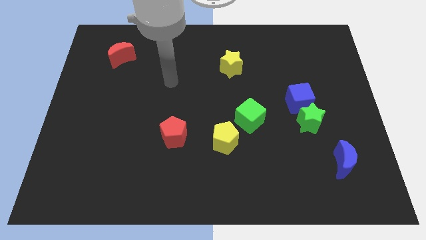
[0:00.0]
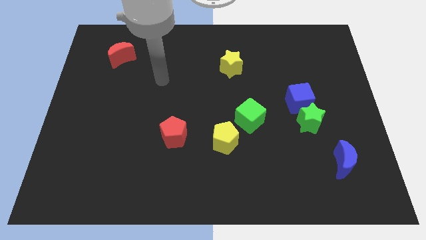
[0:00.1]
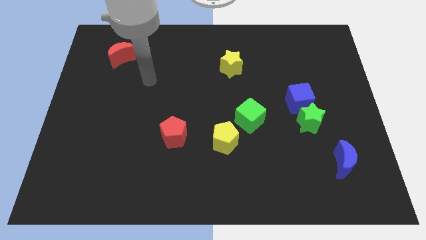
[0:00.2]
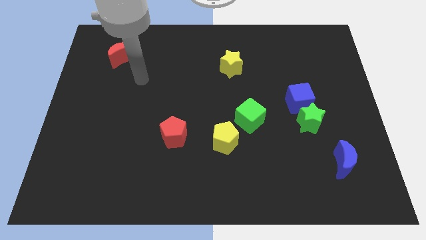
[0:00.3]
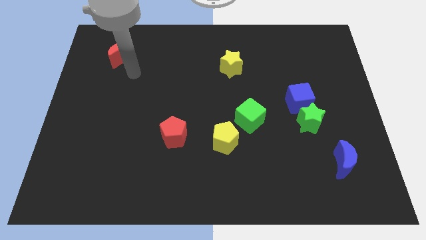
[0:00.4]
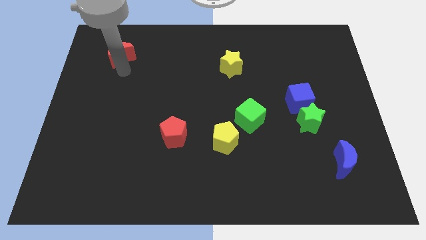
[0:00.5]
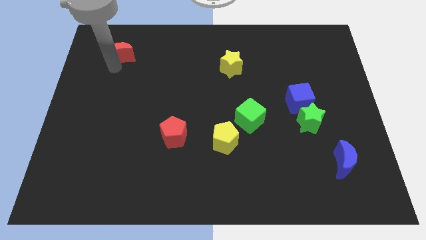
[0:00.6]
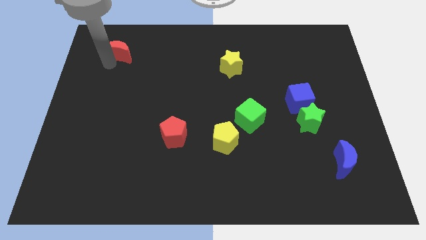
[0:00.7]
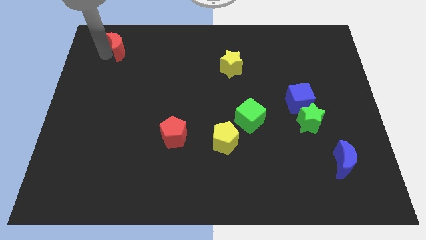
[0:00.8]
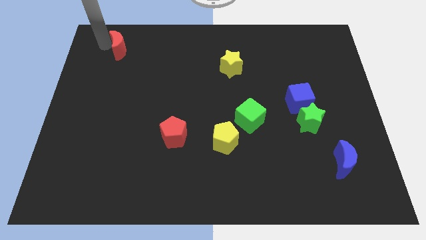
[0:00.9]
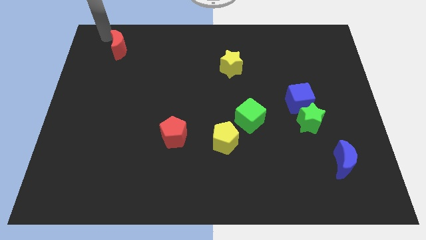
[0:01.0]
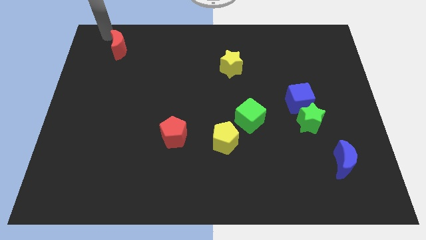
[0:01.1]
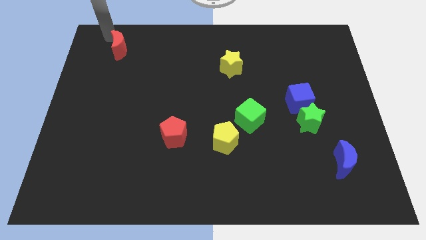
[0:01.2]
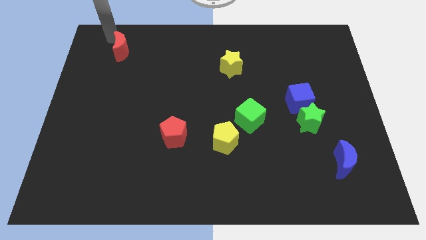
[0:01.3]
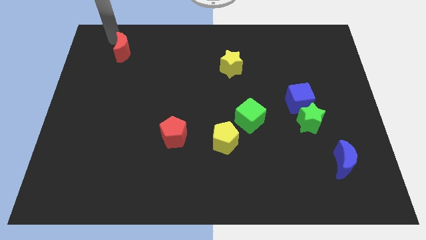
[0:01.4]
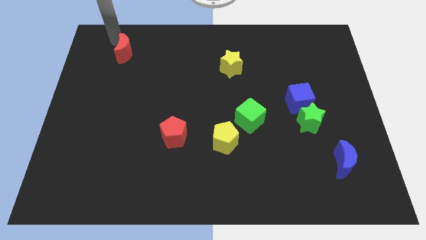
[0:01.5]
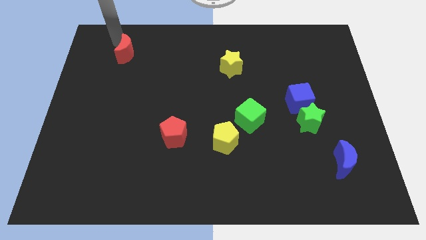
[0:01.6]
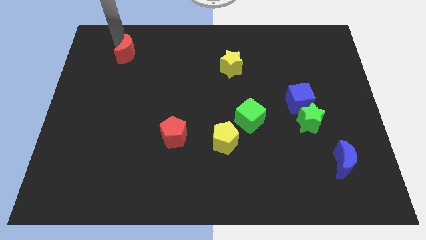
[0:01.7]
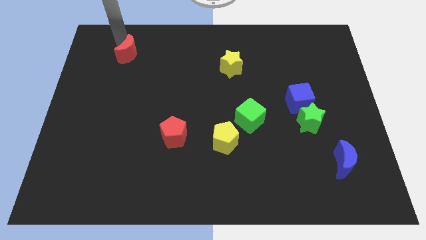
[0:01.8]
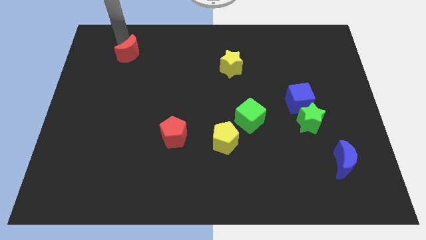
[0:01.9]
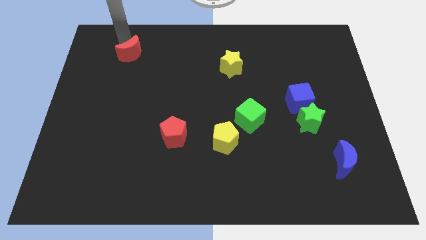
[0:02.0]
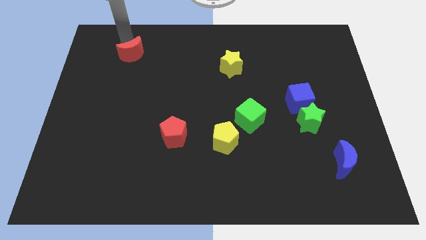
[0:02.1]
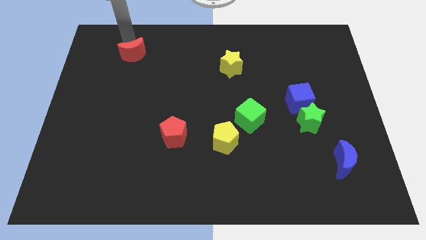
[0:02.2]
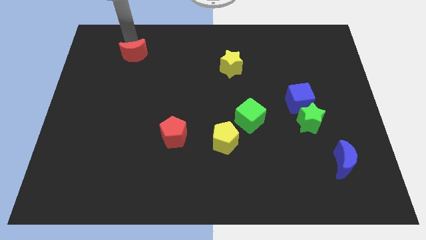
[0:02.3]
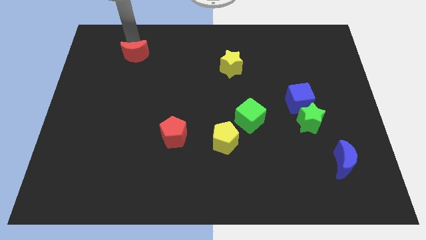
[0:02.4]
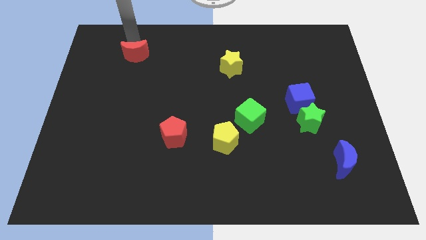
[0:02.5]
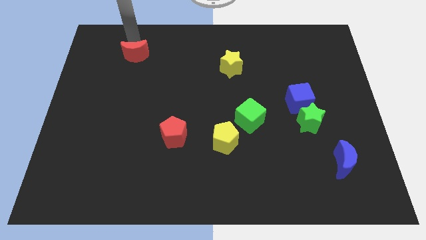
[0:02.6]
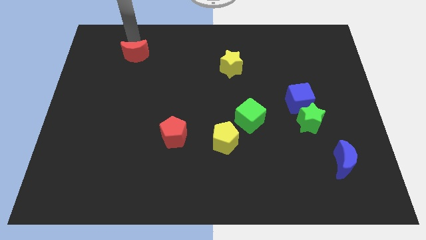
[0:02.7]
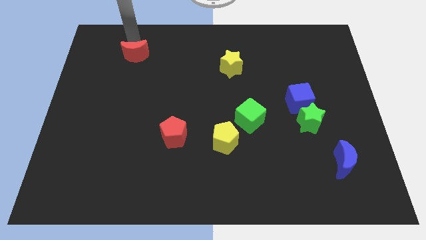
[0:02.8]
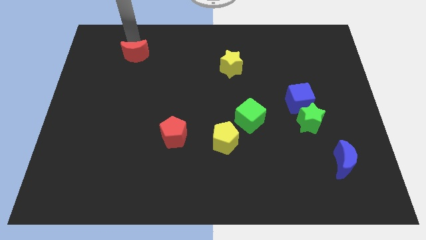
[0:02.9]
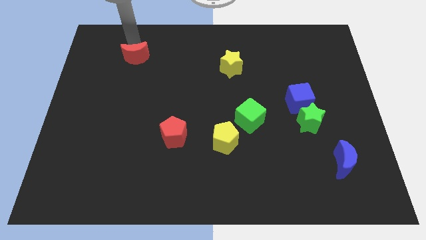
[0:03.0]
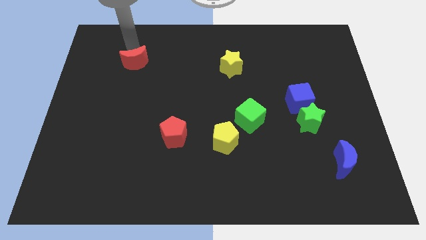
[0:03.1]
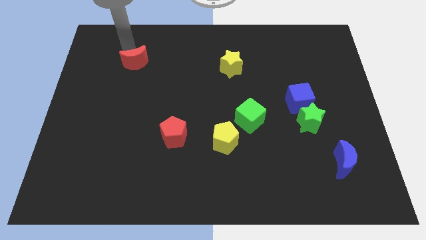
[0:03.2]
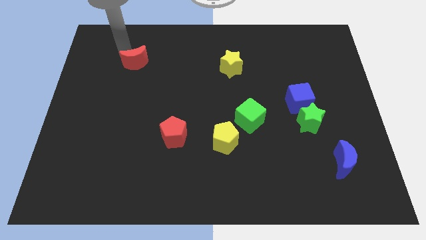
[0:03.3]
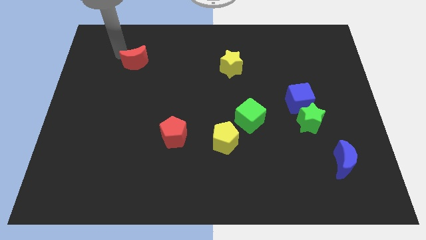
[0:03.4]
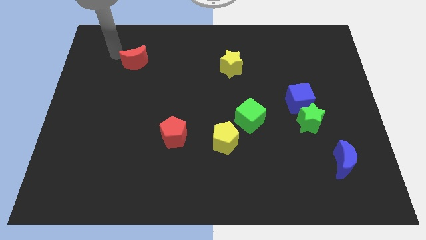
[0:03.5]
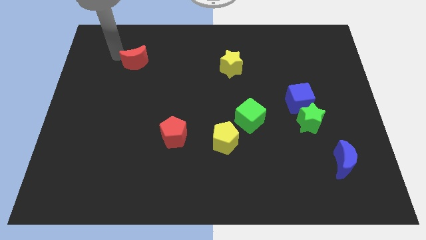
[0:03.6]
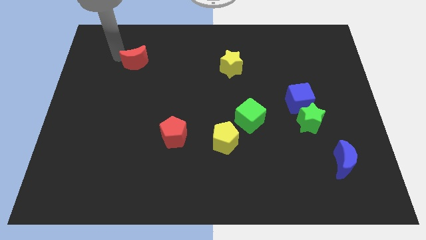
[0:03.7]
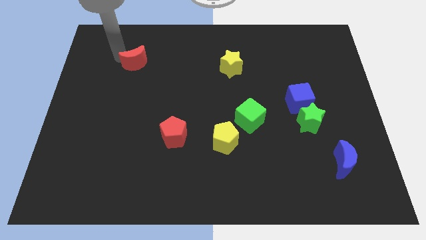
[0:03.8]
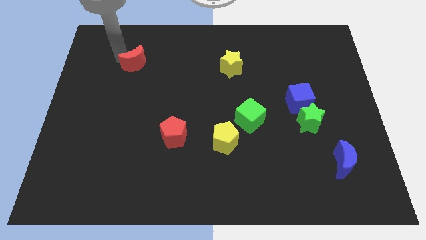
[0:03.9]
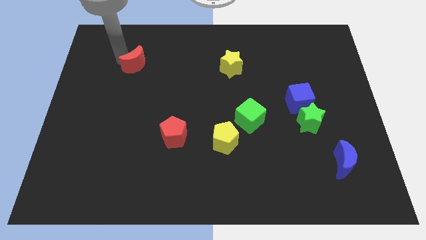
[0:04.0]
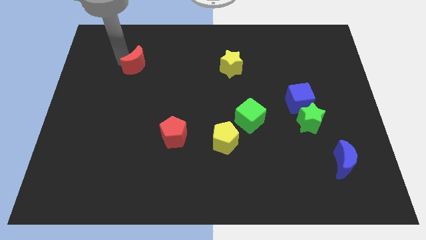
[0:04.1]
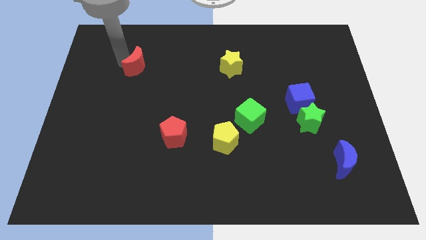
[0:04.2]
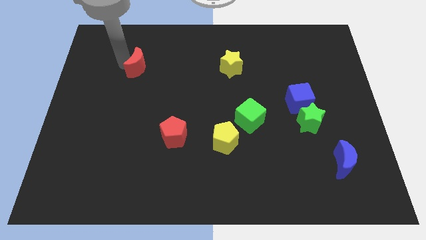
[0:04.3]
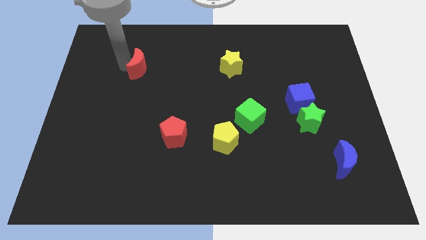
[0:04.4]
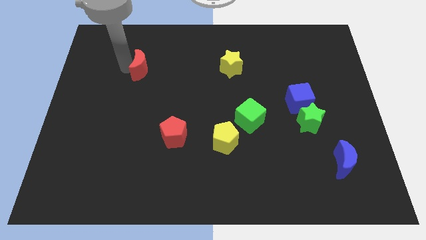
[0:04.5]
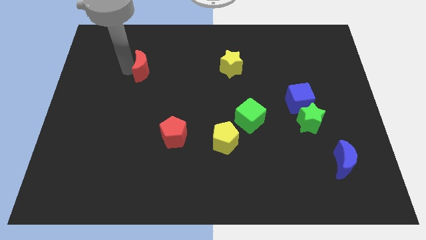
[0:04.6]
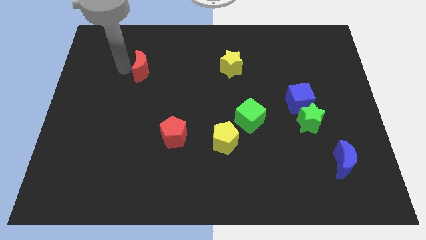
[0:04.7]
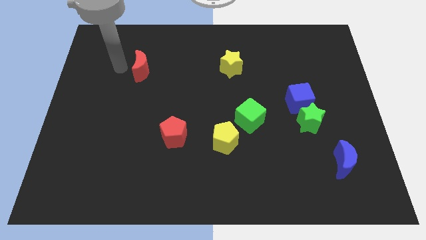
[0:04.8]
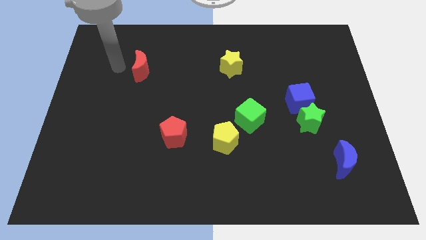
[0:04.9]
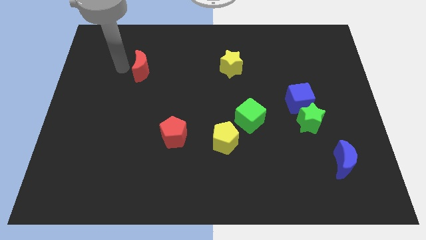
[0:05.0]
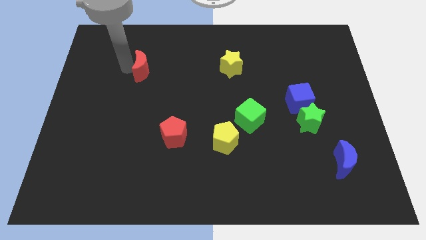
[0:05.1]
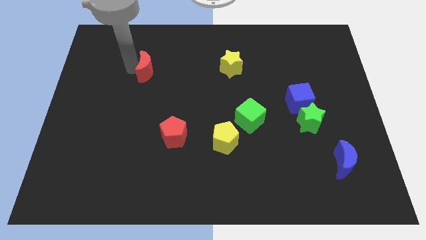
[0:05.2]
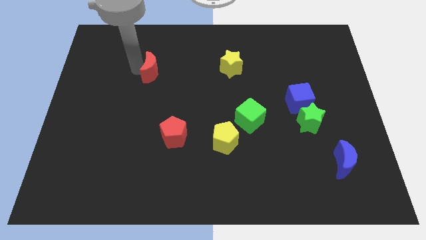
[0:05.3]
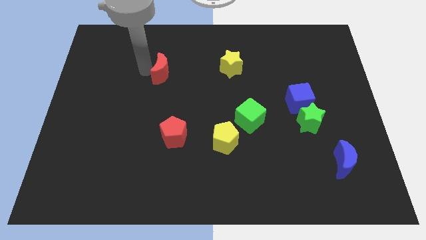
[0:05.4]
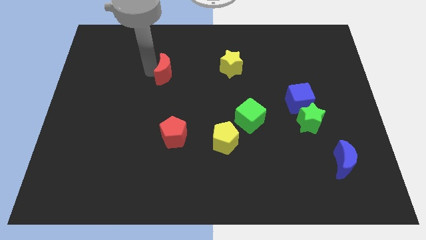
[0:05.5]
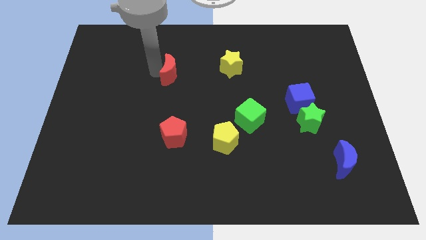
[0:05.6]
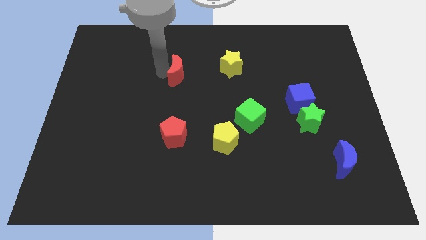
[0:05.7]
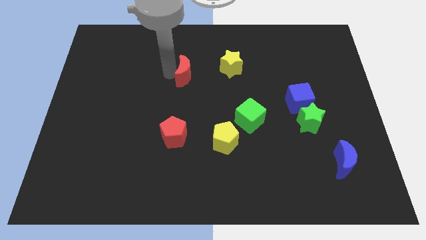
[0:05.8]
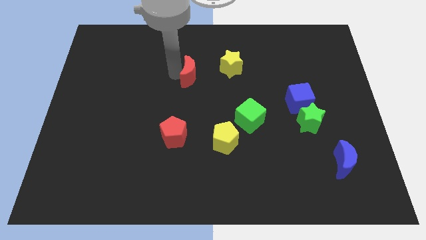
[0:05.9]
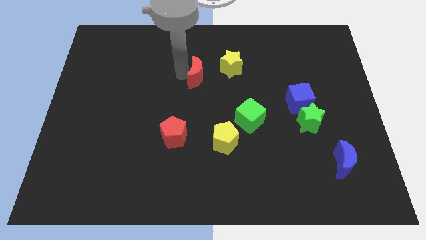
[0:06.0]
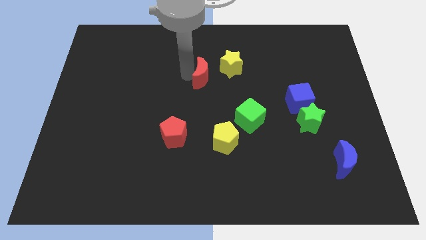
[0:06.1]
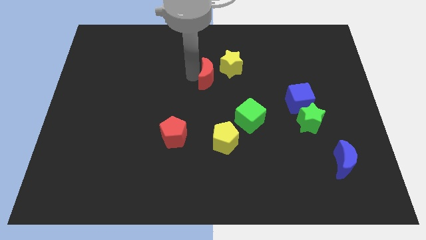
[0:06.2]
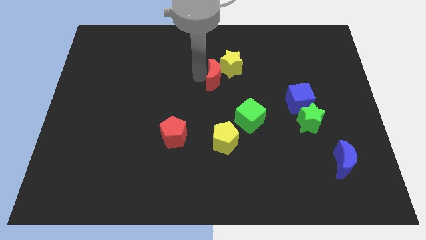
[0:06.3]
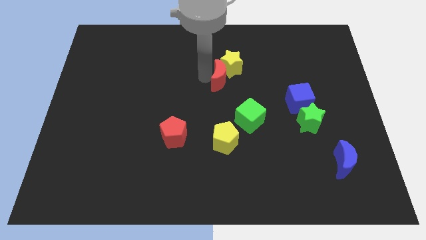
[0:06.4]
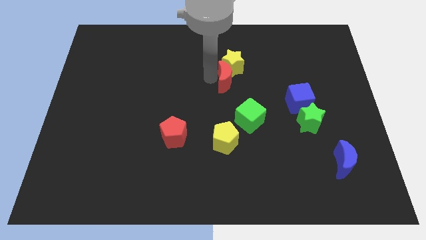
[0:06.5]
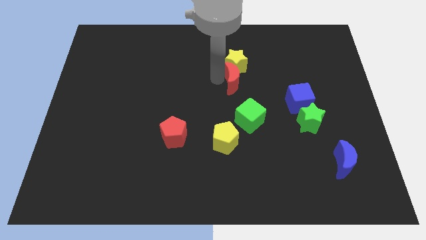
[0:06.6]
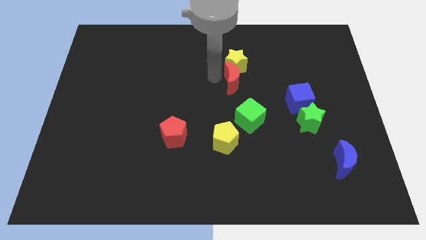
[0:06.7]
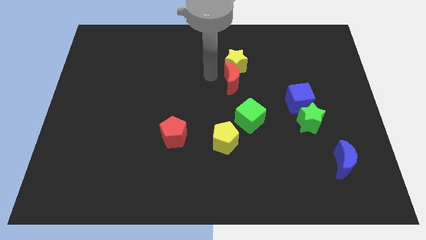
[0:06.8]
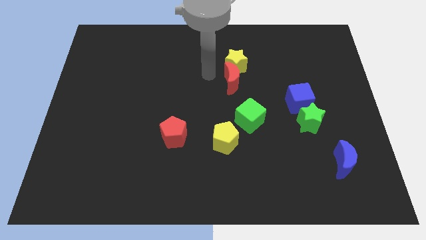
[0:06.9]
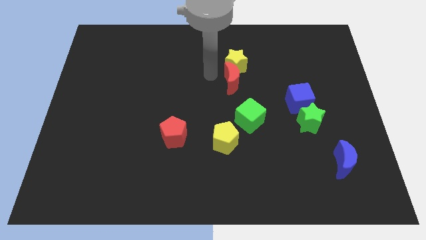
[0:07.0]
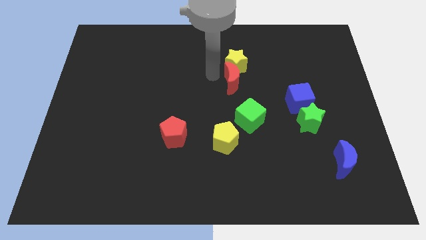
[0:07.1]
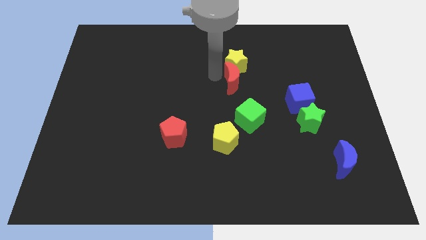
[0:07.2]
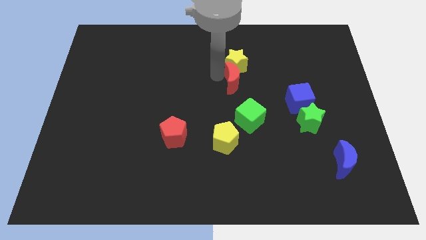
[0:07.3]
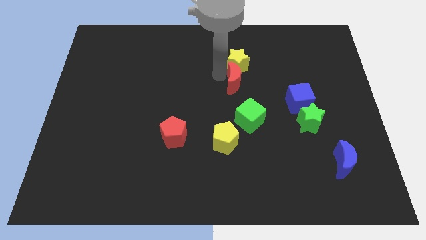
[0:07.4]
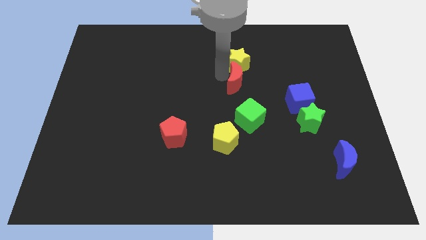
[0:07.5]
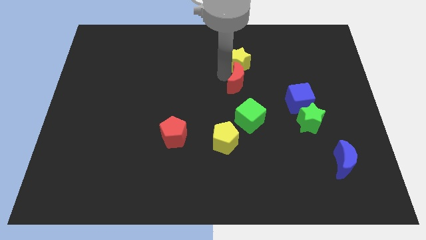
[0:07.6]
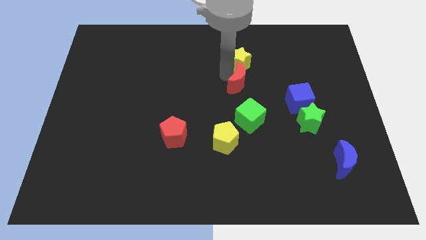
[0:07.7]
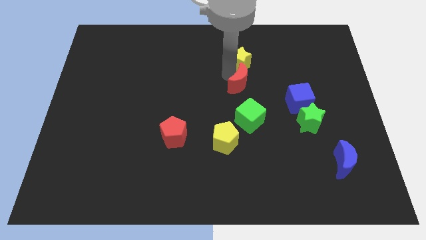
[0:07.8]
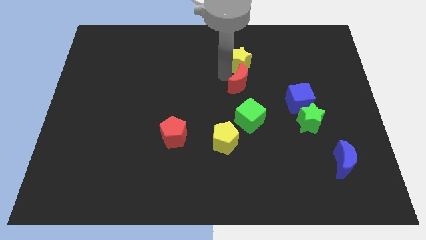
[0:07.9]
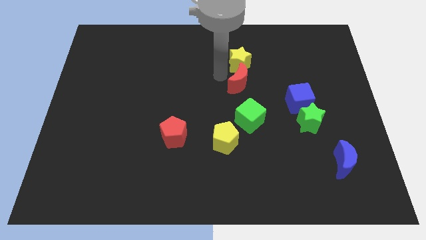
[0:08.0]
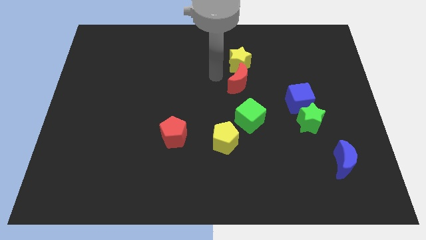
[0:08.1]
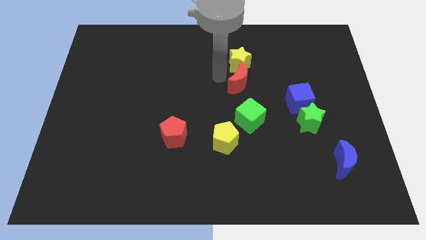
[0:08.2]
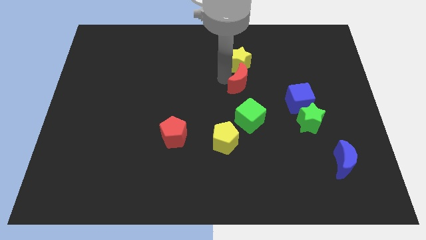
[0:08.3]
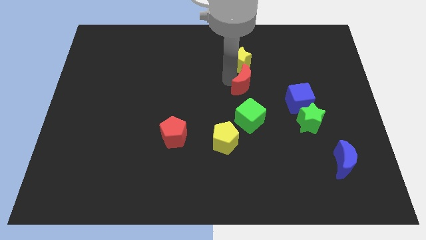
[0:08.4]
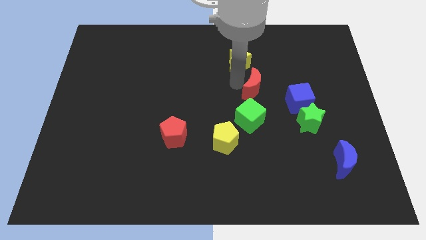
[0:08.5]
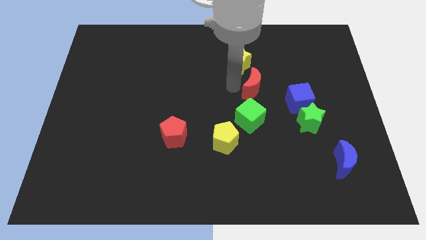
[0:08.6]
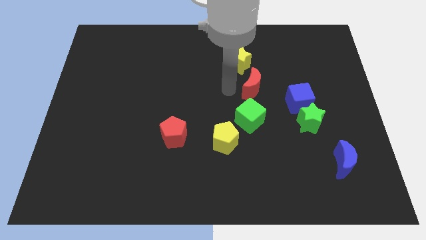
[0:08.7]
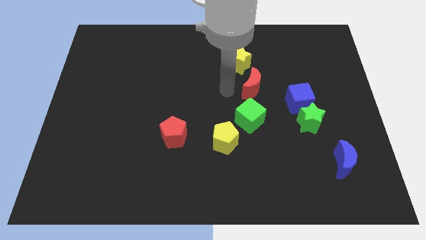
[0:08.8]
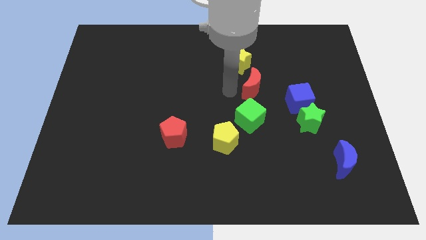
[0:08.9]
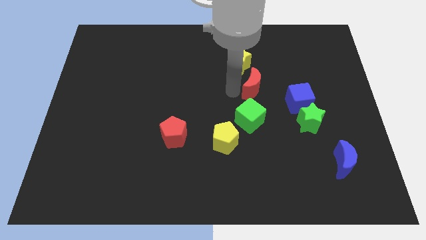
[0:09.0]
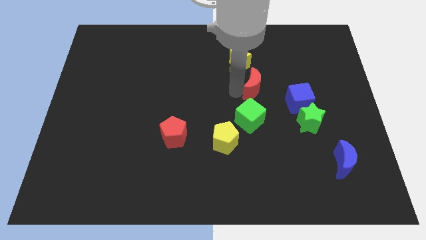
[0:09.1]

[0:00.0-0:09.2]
slide the red moon to the top left side of the blue cube
